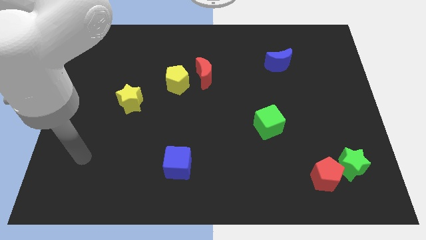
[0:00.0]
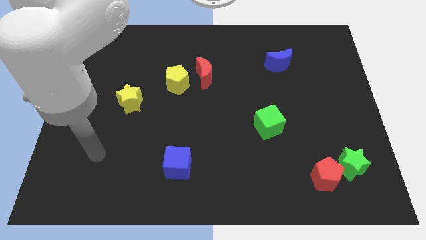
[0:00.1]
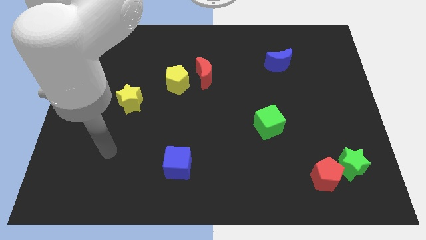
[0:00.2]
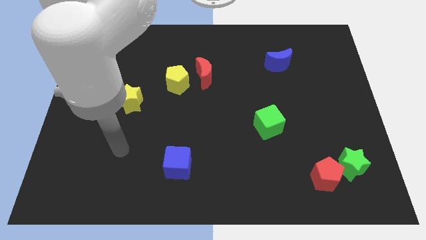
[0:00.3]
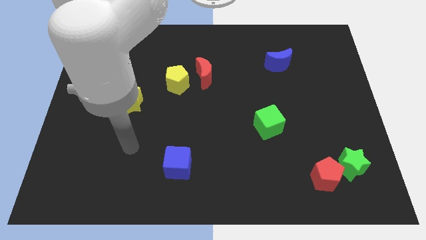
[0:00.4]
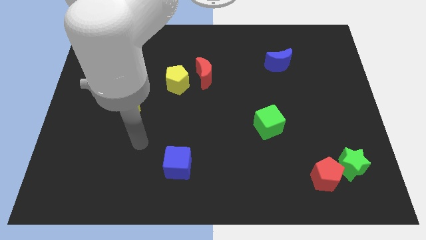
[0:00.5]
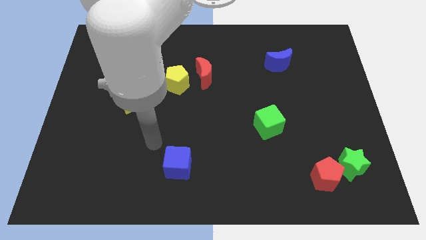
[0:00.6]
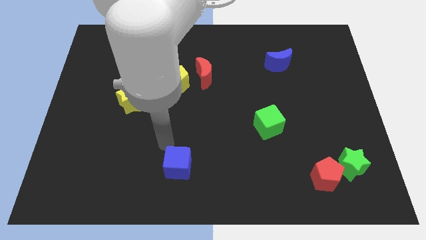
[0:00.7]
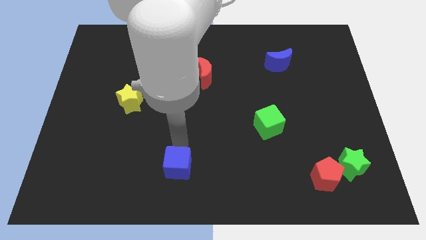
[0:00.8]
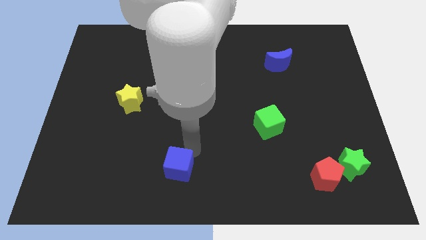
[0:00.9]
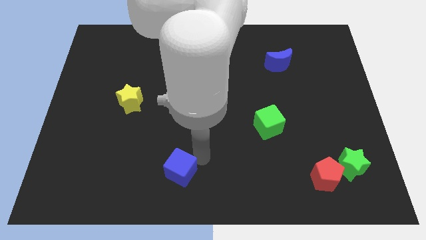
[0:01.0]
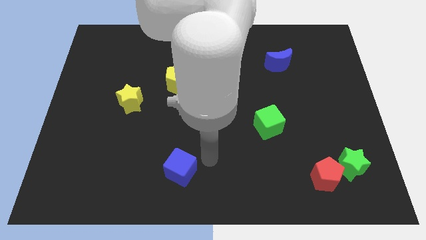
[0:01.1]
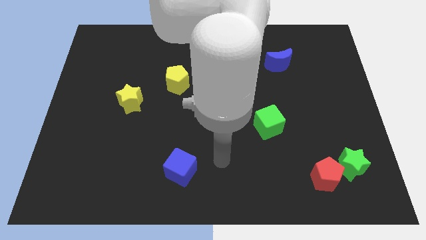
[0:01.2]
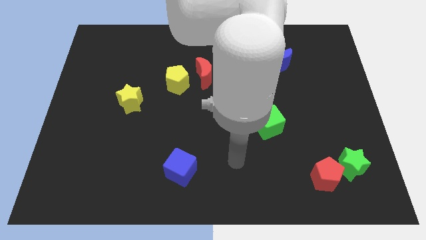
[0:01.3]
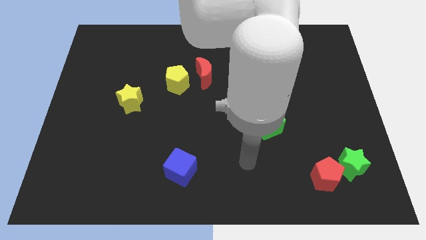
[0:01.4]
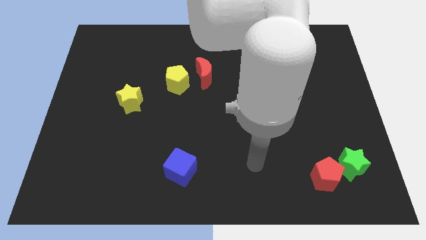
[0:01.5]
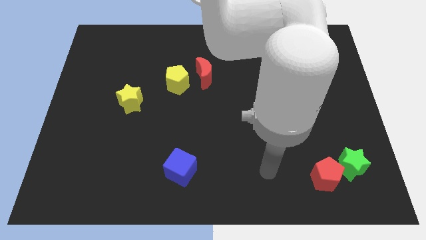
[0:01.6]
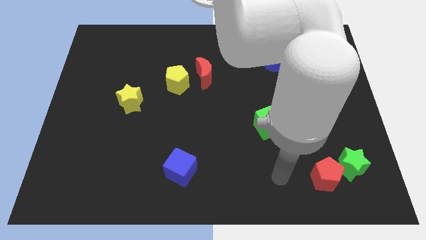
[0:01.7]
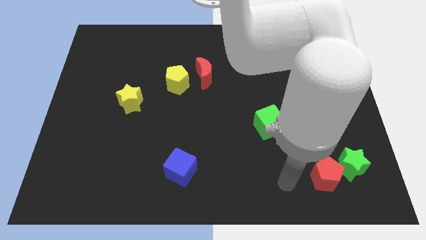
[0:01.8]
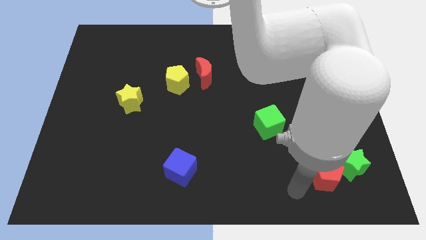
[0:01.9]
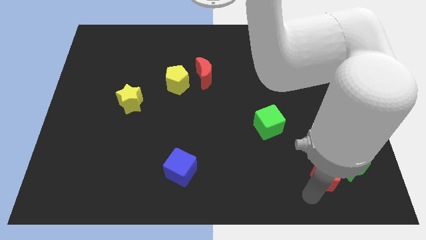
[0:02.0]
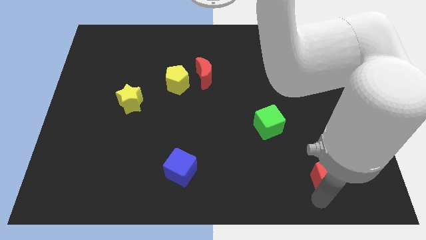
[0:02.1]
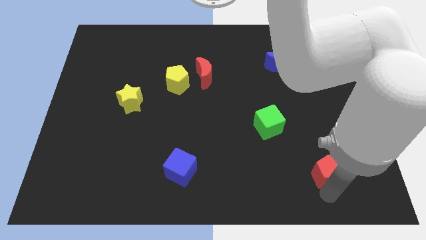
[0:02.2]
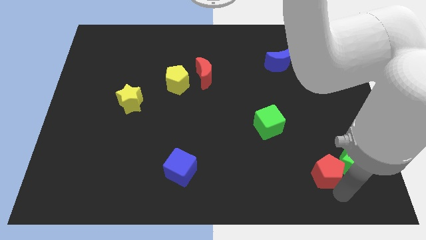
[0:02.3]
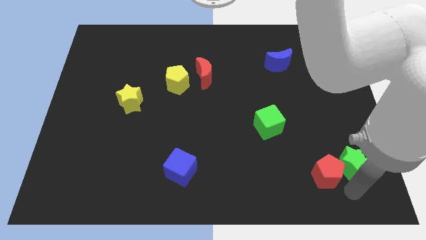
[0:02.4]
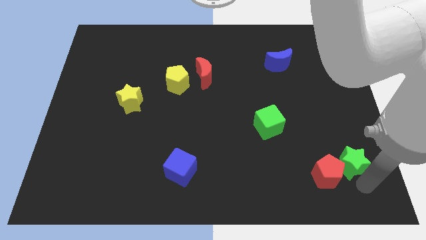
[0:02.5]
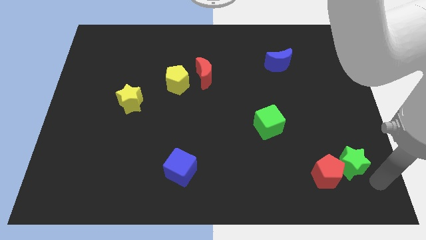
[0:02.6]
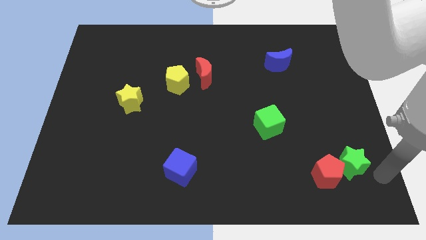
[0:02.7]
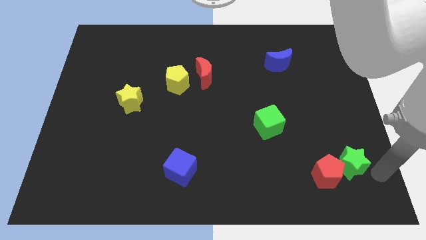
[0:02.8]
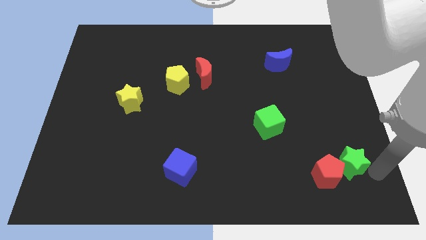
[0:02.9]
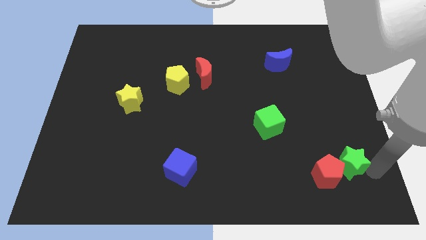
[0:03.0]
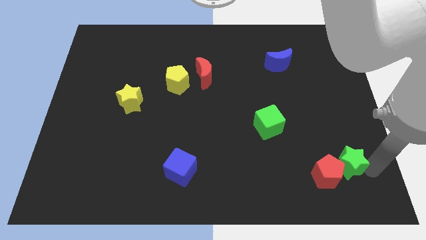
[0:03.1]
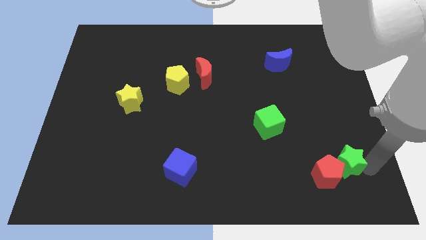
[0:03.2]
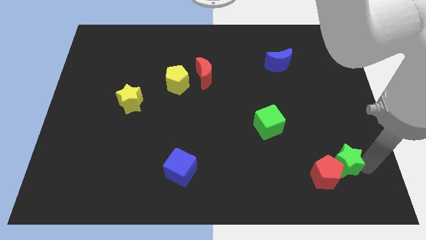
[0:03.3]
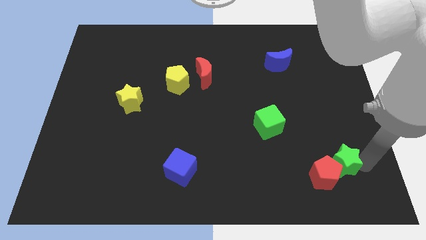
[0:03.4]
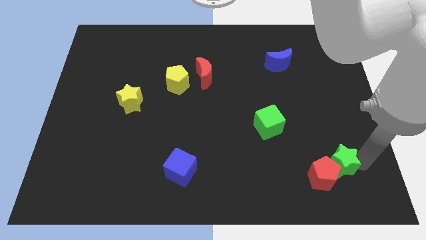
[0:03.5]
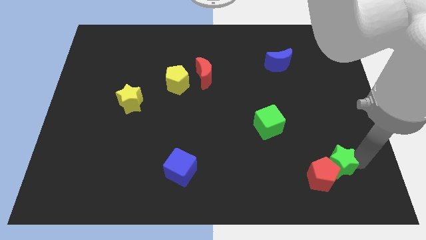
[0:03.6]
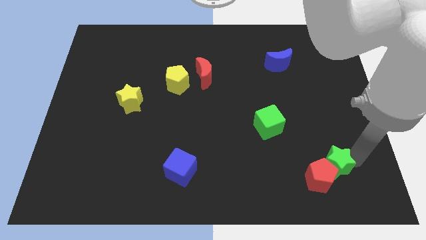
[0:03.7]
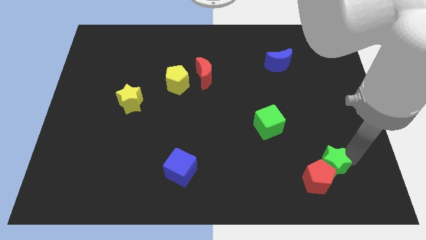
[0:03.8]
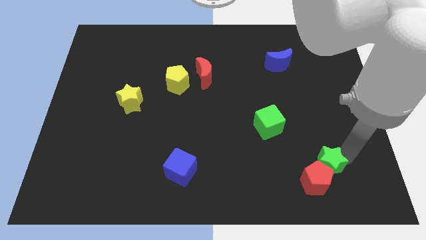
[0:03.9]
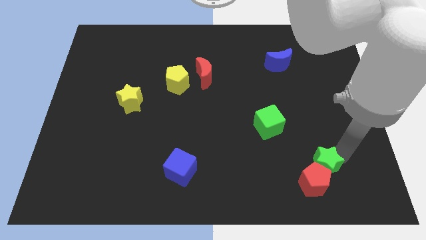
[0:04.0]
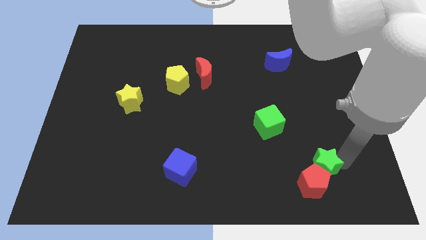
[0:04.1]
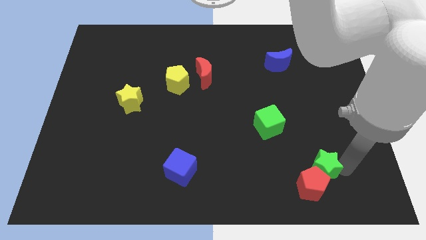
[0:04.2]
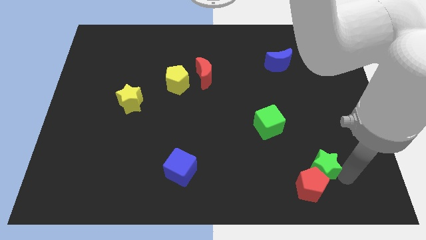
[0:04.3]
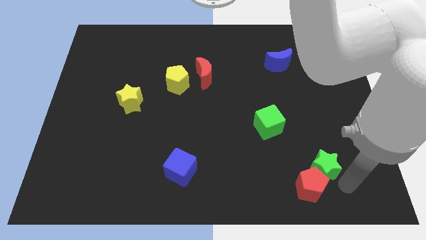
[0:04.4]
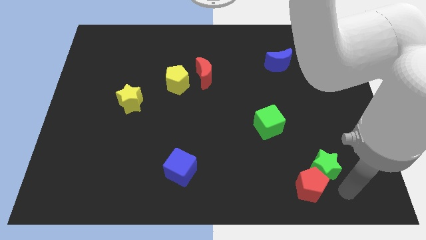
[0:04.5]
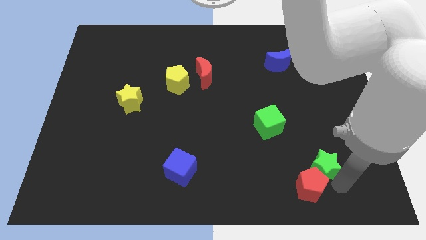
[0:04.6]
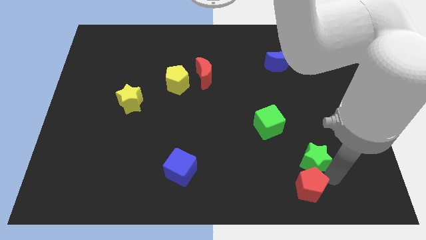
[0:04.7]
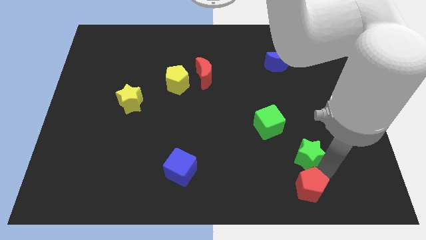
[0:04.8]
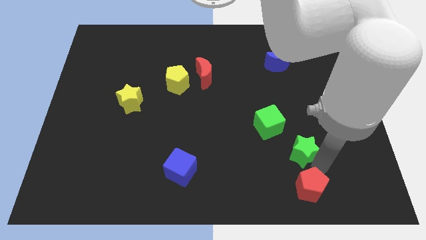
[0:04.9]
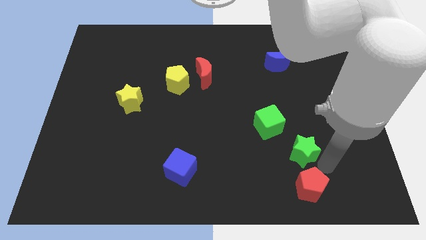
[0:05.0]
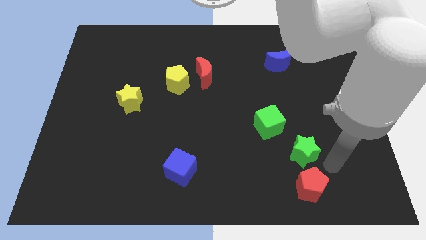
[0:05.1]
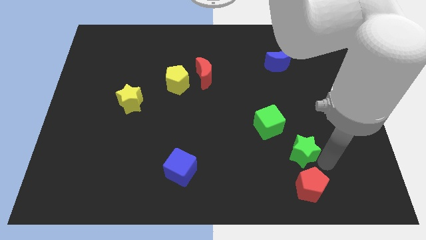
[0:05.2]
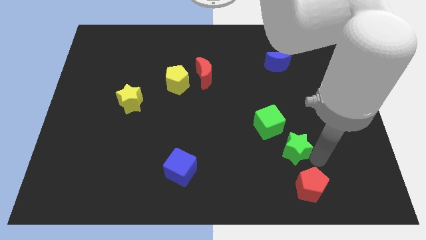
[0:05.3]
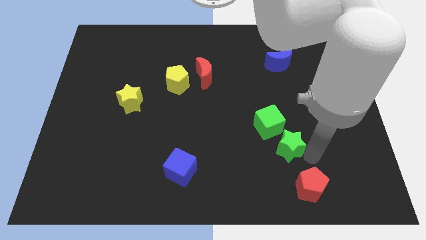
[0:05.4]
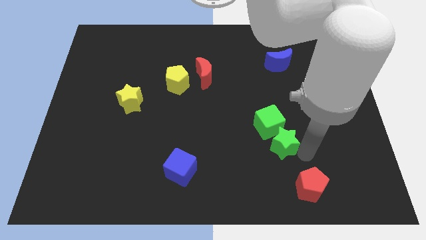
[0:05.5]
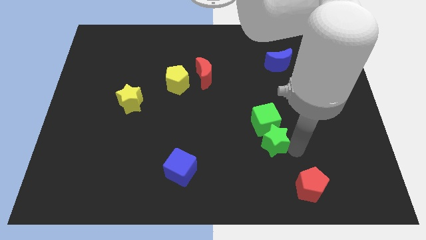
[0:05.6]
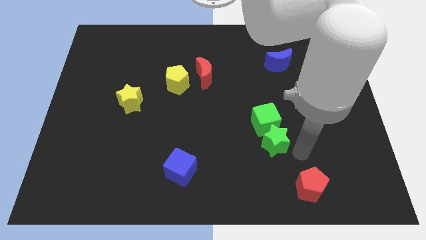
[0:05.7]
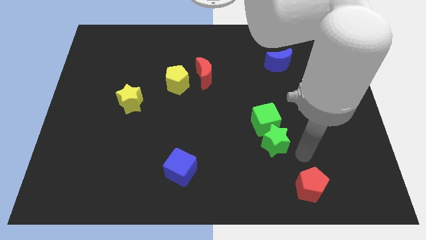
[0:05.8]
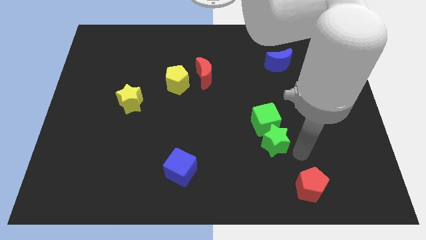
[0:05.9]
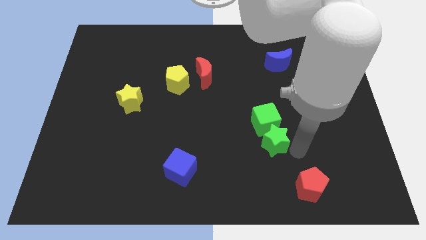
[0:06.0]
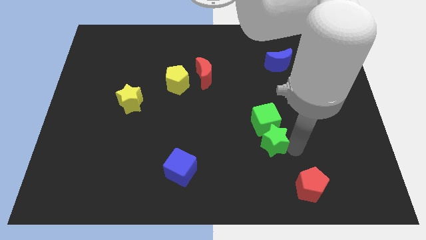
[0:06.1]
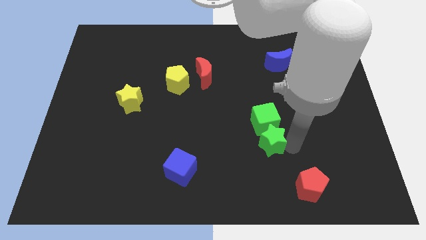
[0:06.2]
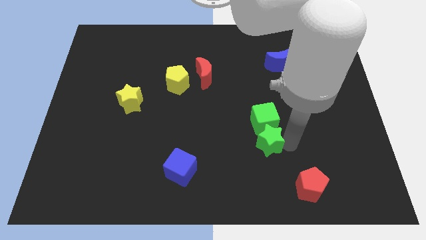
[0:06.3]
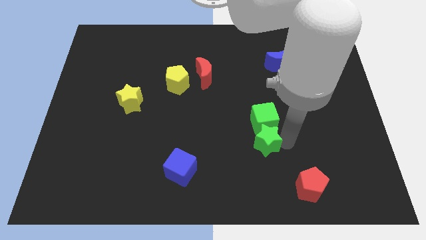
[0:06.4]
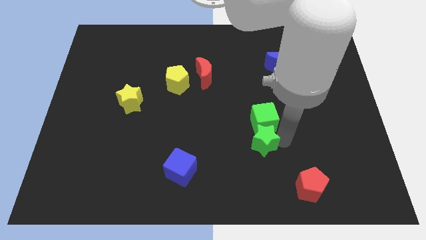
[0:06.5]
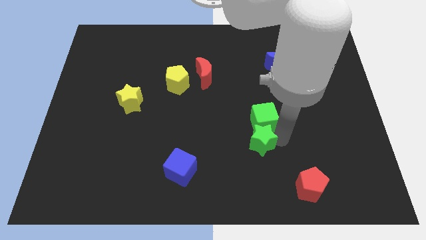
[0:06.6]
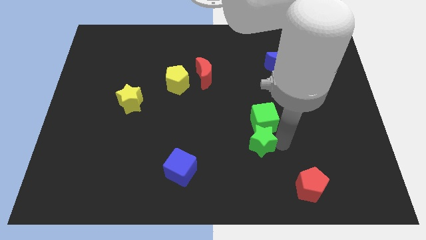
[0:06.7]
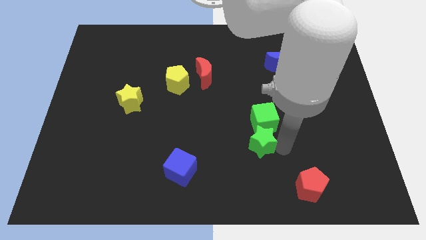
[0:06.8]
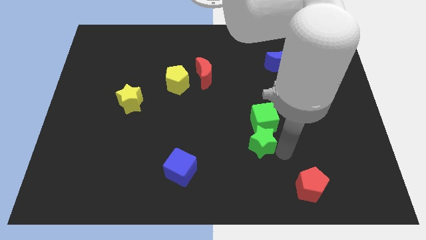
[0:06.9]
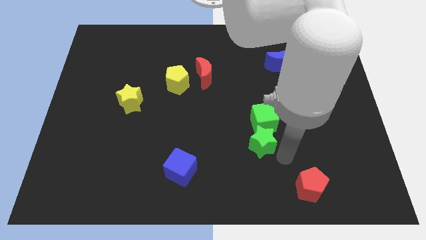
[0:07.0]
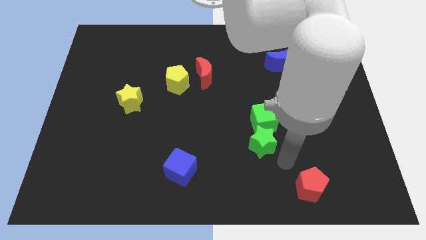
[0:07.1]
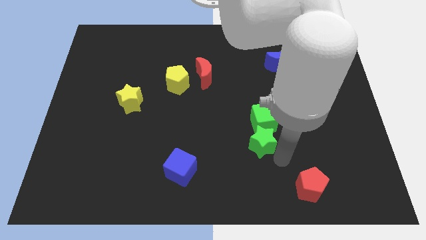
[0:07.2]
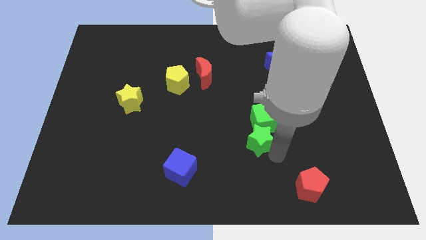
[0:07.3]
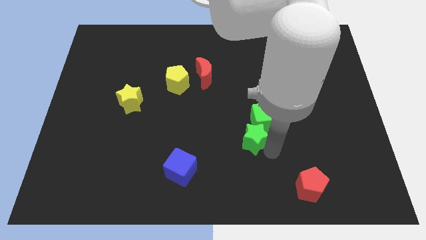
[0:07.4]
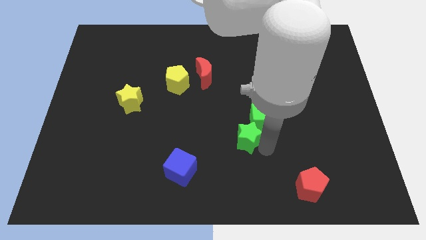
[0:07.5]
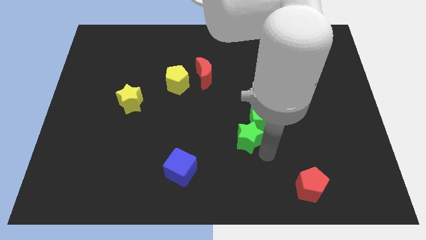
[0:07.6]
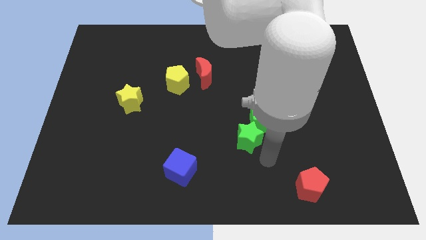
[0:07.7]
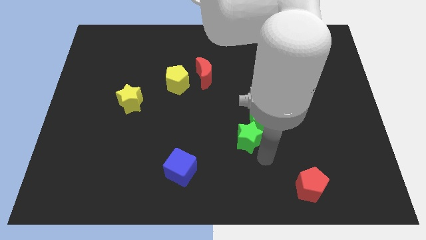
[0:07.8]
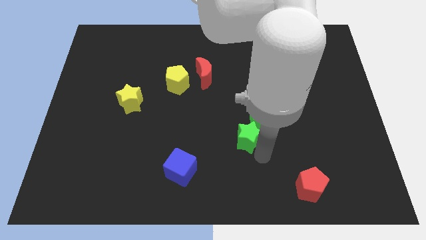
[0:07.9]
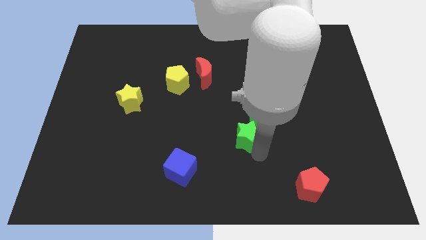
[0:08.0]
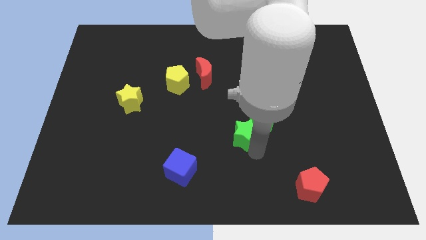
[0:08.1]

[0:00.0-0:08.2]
put the green star to the center
